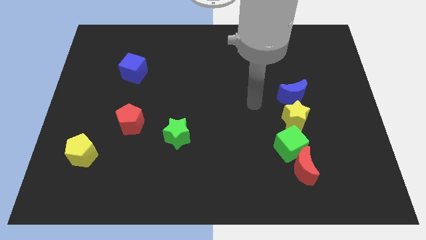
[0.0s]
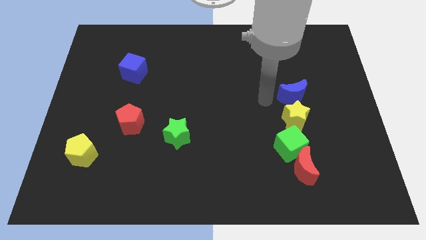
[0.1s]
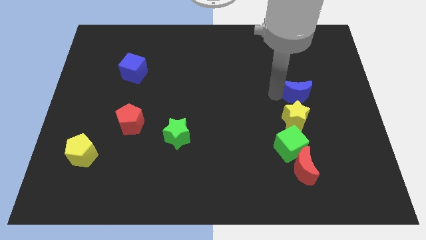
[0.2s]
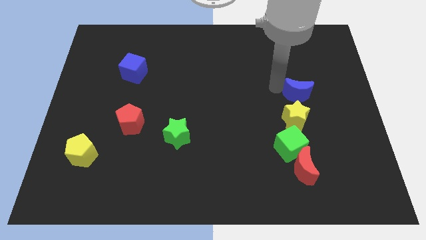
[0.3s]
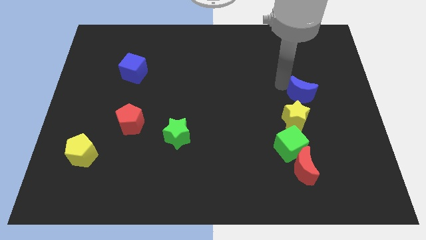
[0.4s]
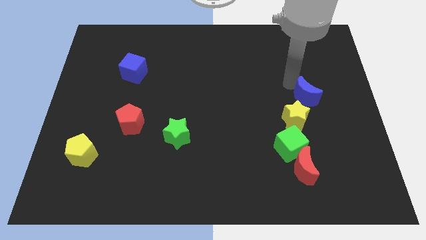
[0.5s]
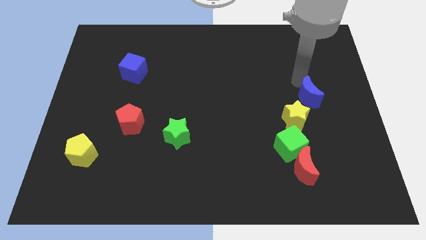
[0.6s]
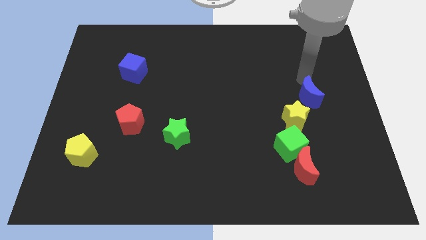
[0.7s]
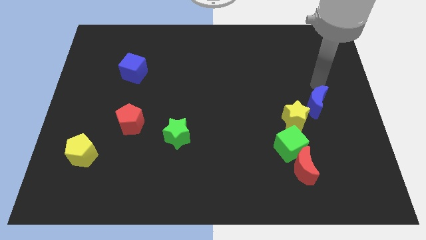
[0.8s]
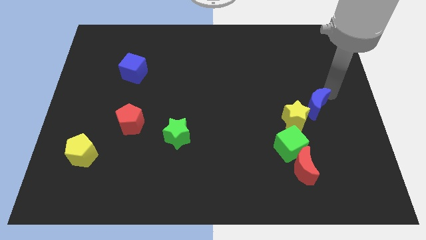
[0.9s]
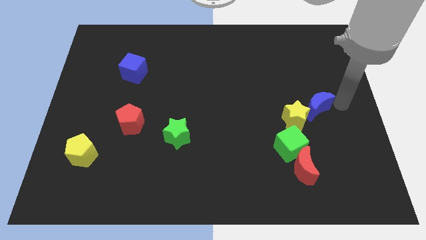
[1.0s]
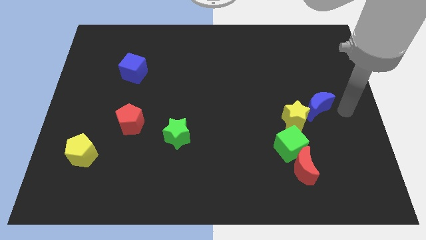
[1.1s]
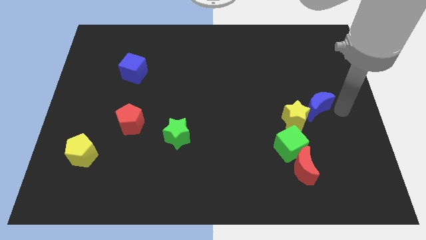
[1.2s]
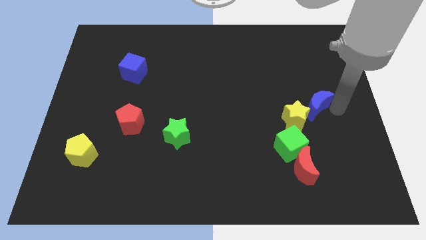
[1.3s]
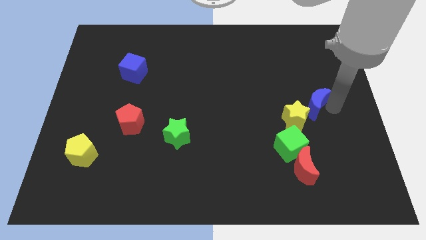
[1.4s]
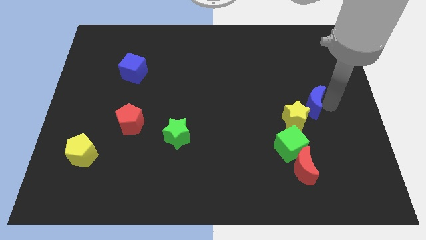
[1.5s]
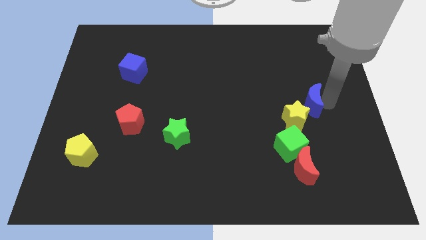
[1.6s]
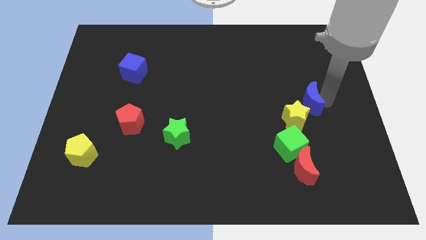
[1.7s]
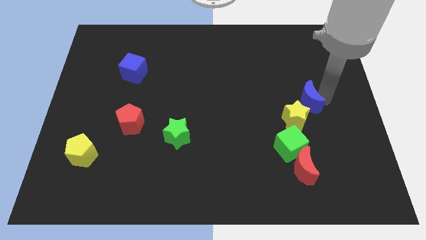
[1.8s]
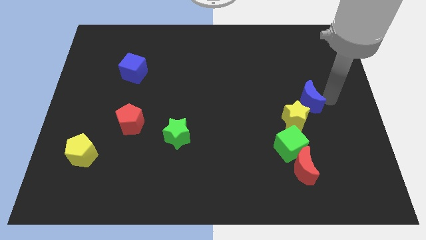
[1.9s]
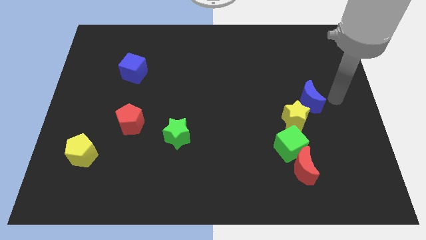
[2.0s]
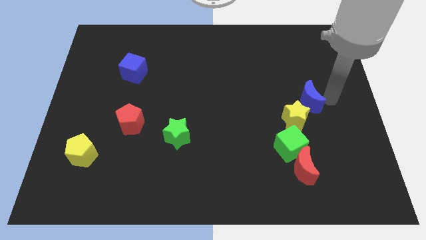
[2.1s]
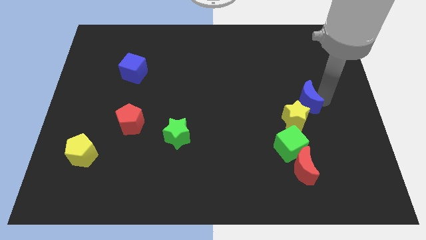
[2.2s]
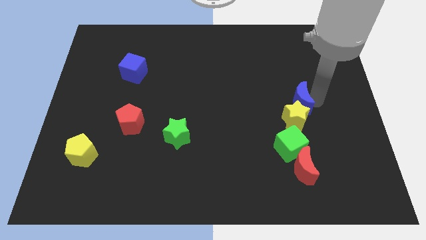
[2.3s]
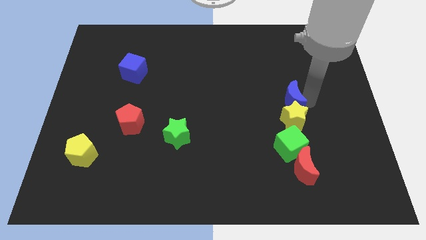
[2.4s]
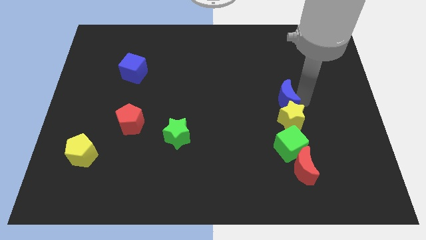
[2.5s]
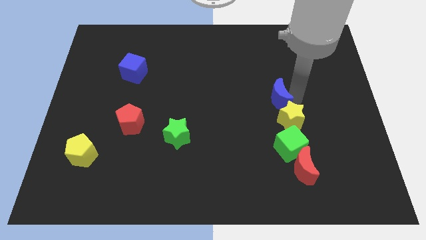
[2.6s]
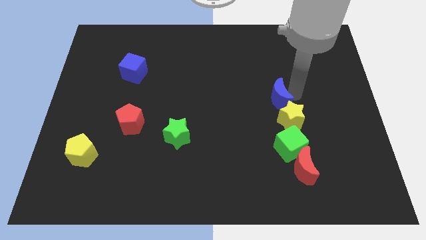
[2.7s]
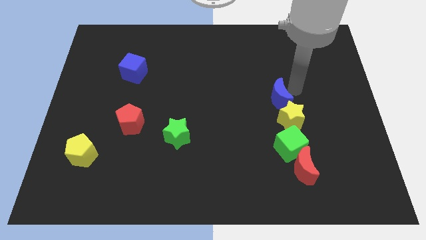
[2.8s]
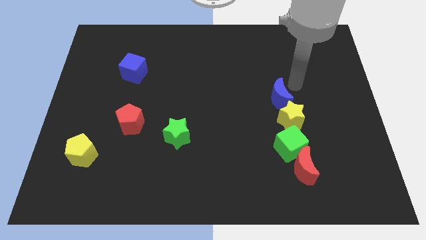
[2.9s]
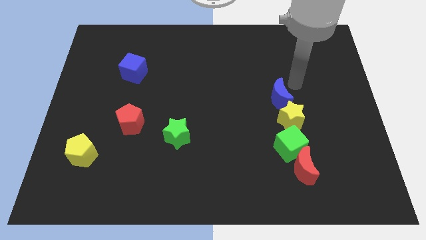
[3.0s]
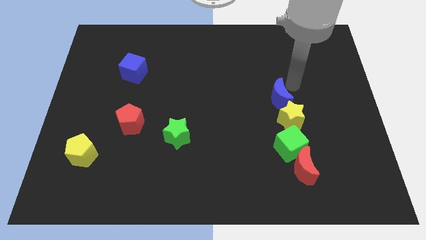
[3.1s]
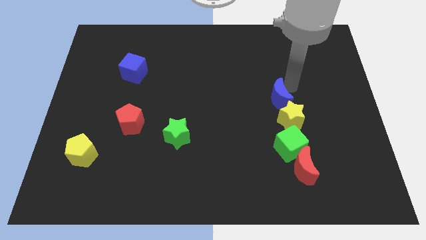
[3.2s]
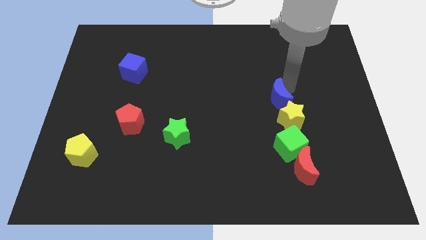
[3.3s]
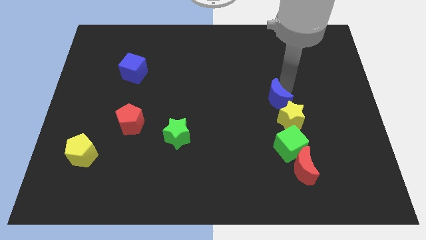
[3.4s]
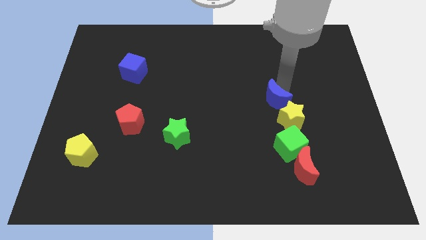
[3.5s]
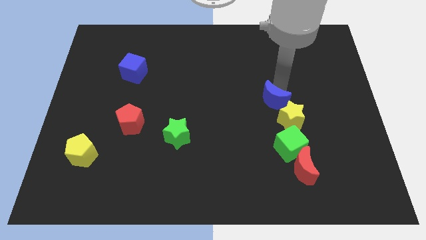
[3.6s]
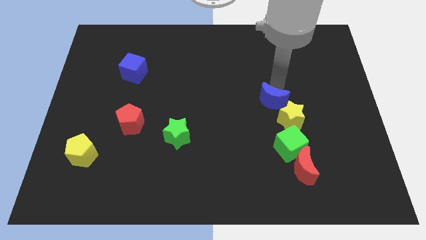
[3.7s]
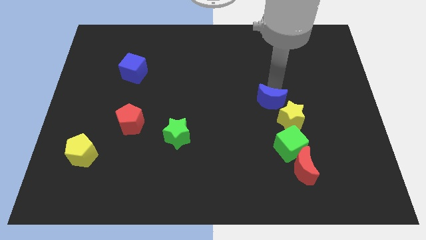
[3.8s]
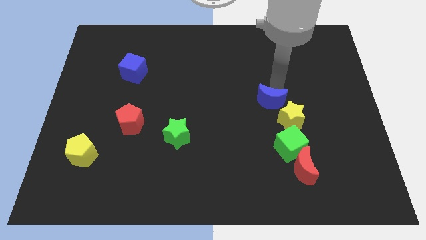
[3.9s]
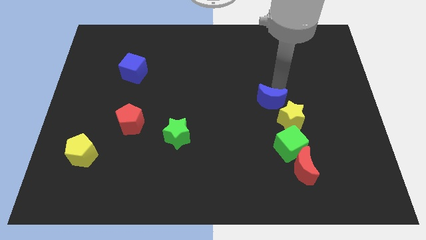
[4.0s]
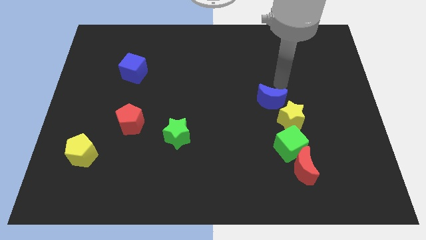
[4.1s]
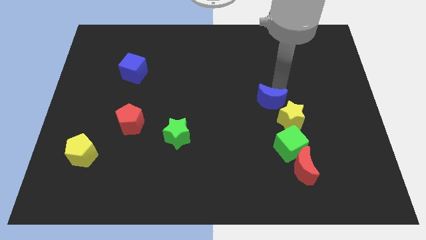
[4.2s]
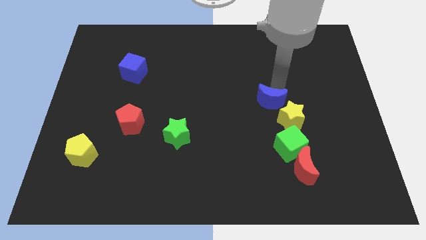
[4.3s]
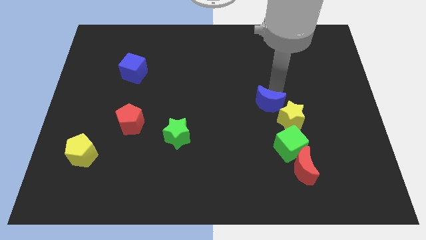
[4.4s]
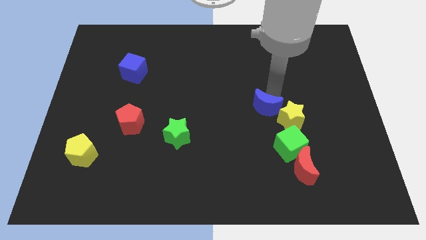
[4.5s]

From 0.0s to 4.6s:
slightly move the blue moon down and to the left diagonally

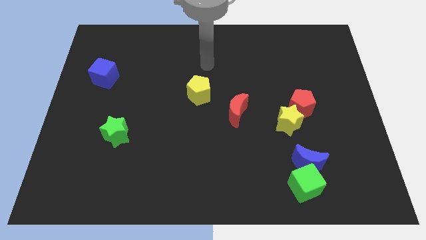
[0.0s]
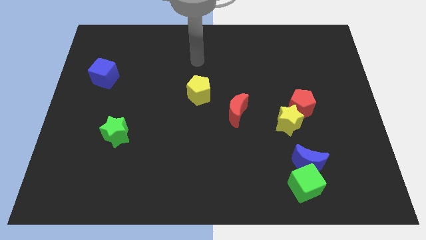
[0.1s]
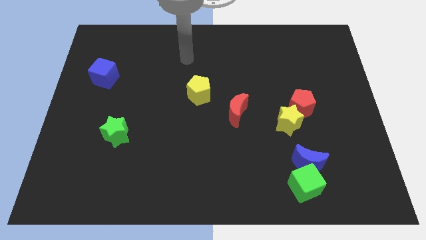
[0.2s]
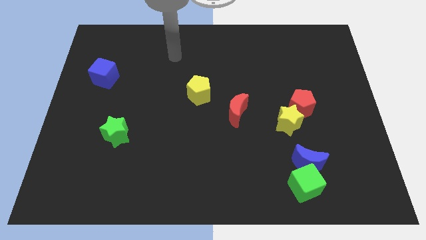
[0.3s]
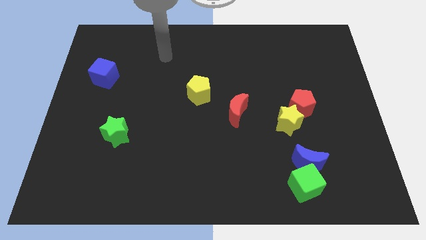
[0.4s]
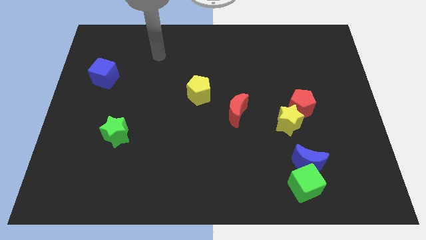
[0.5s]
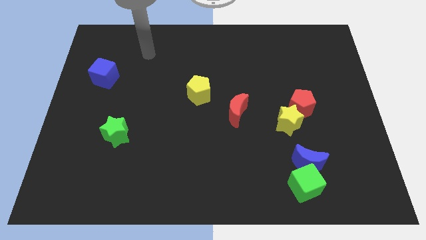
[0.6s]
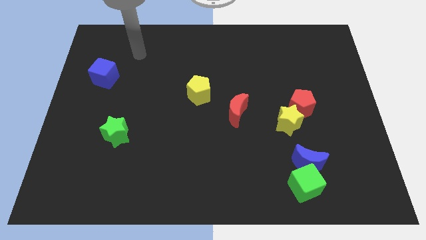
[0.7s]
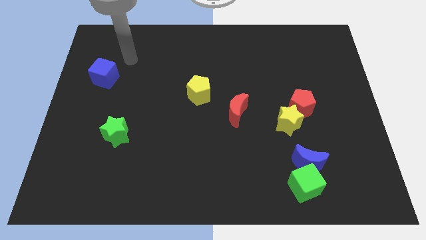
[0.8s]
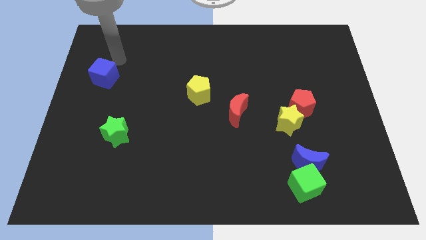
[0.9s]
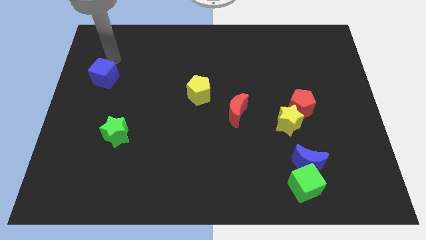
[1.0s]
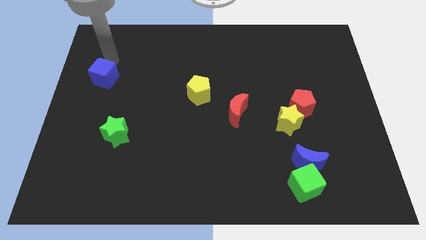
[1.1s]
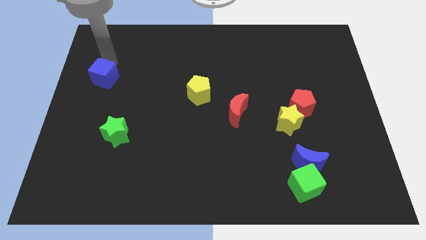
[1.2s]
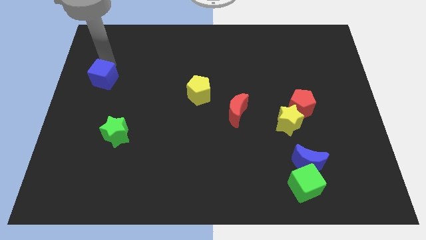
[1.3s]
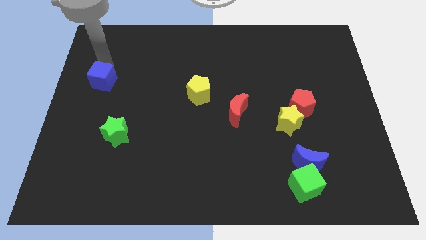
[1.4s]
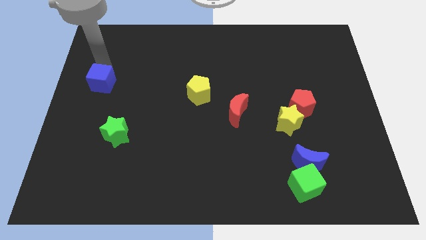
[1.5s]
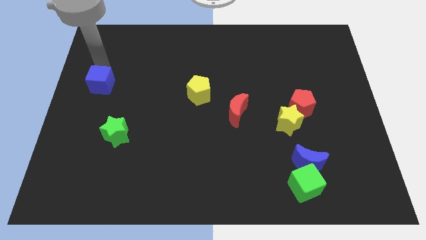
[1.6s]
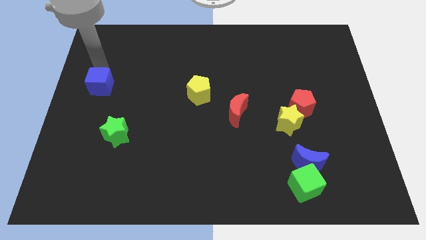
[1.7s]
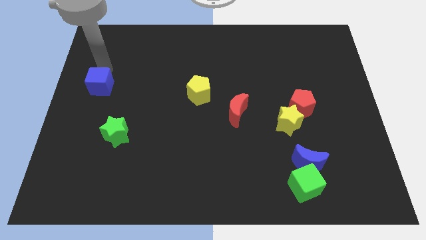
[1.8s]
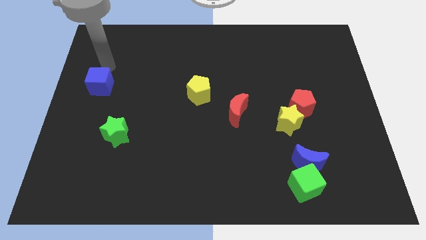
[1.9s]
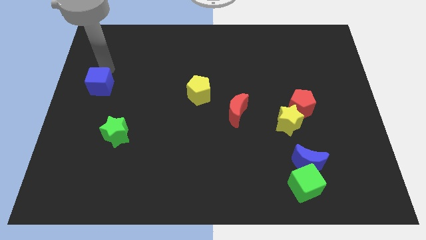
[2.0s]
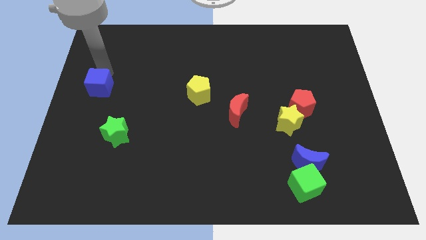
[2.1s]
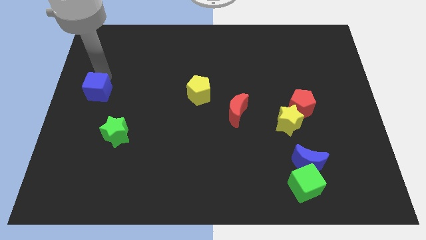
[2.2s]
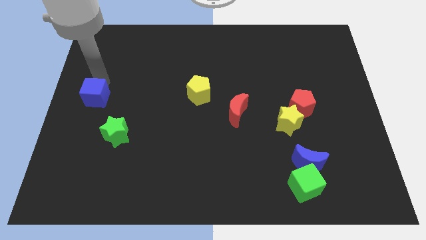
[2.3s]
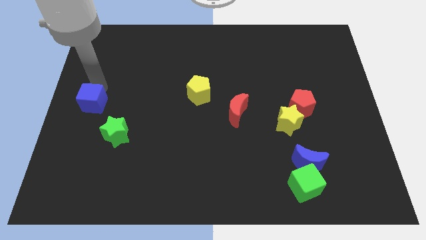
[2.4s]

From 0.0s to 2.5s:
slightly push the blue cube downwards

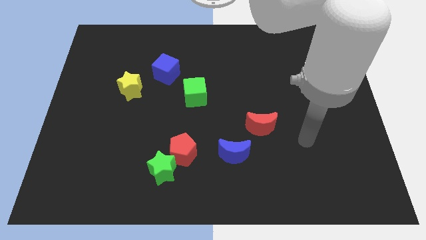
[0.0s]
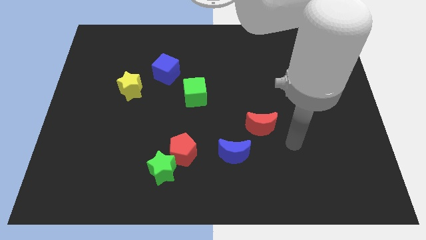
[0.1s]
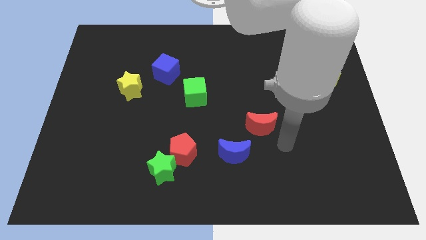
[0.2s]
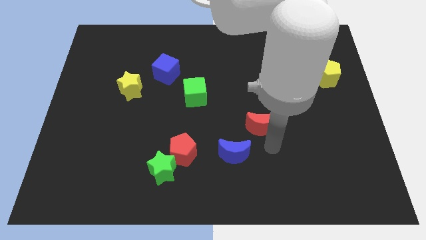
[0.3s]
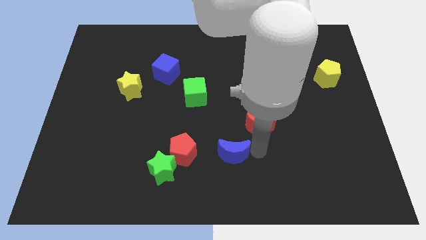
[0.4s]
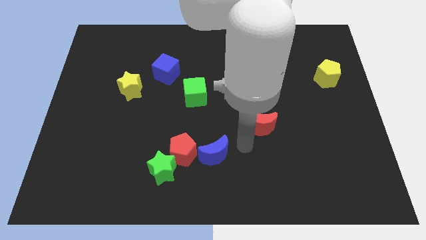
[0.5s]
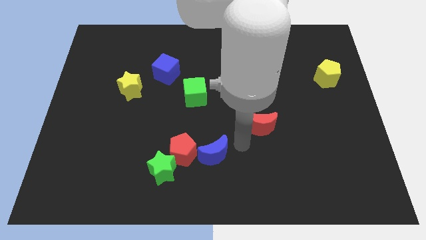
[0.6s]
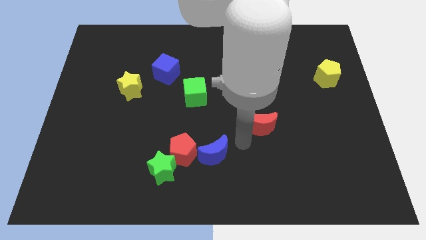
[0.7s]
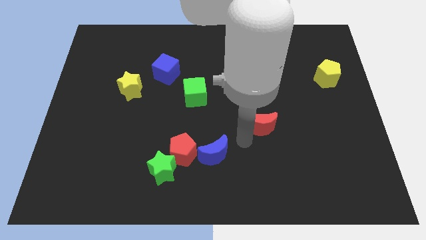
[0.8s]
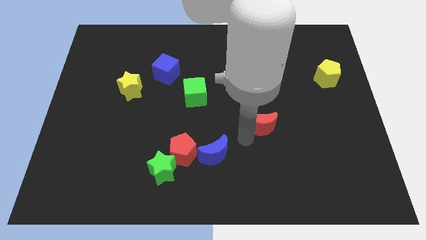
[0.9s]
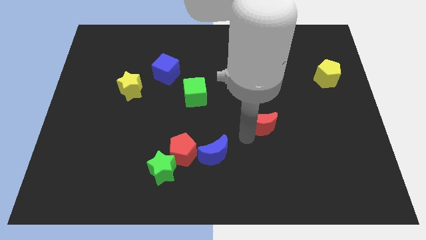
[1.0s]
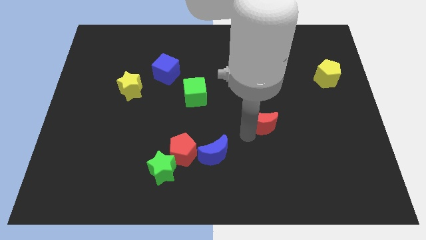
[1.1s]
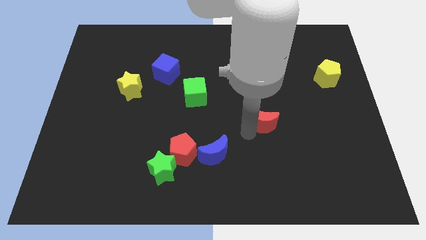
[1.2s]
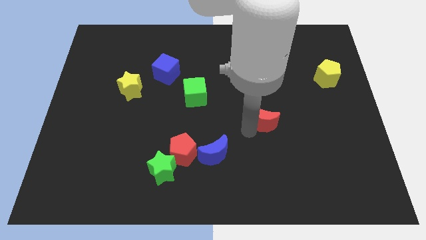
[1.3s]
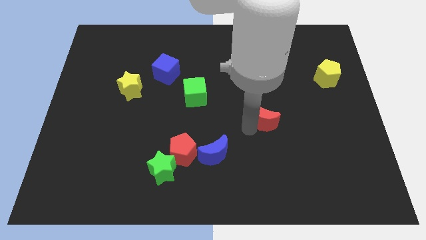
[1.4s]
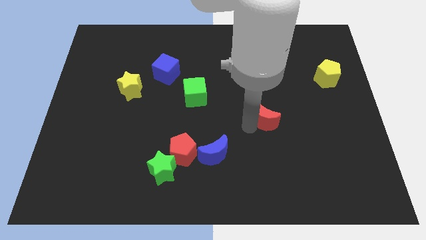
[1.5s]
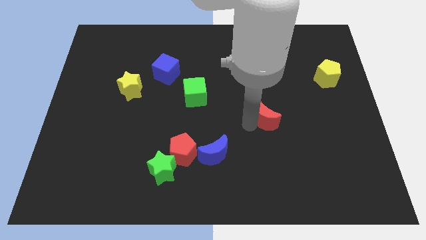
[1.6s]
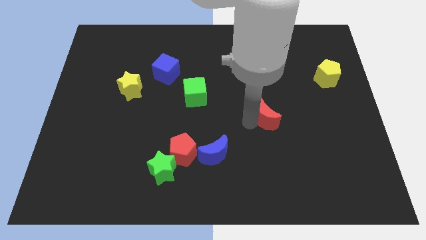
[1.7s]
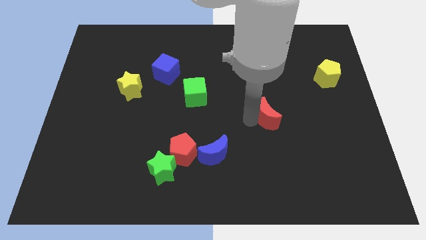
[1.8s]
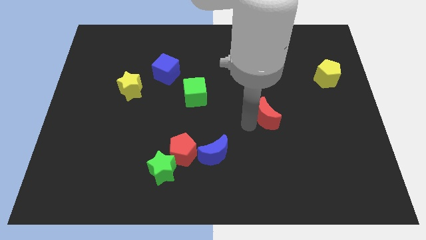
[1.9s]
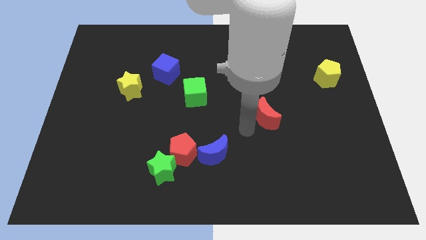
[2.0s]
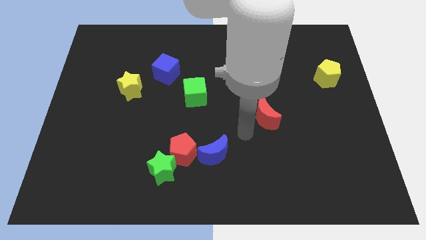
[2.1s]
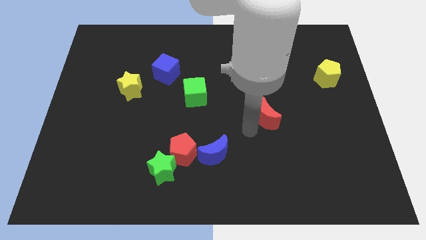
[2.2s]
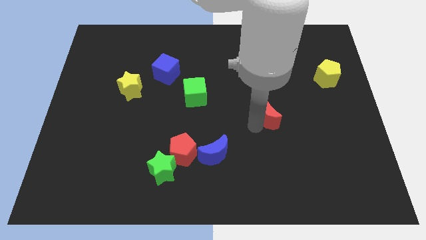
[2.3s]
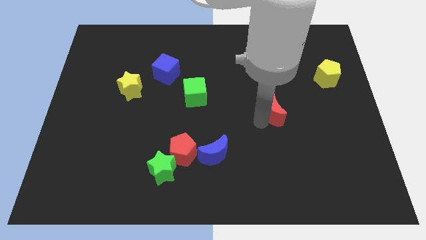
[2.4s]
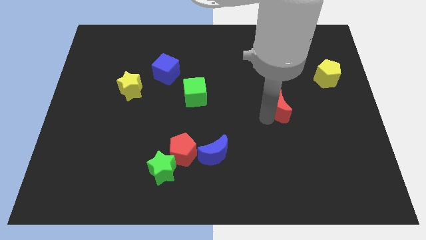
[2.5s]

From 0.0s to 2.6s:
push the red moon upwards and then right somewhat
